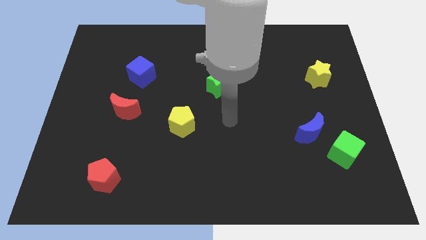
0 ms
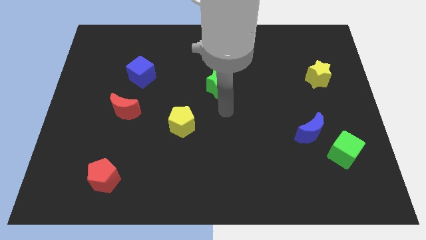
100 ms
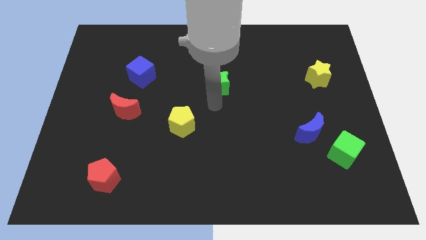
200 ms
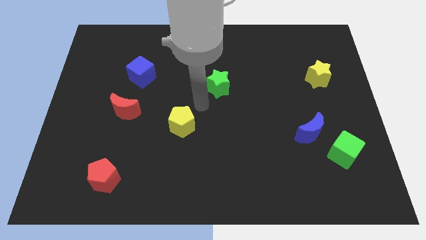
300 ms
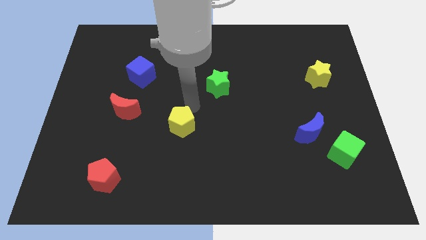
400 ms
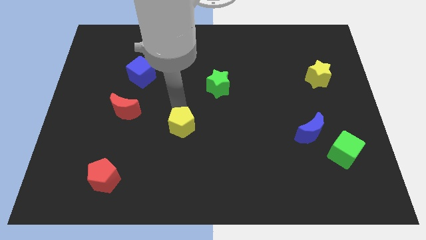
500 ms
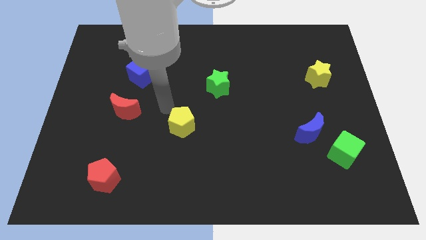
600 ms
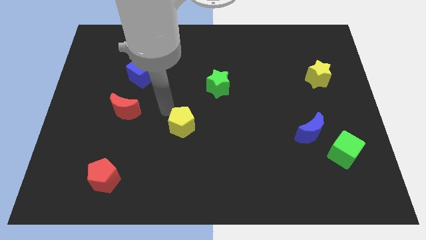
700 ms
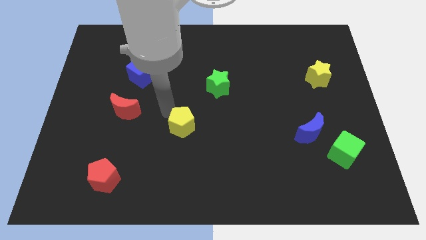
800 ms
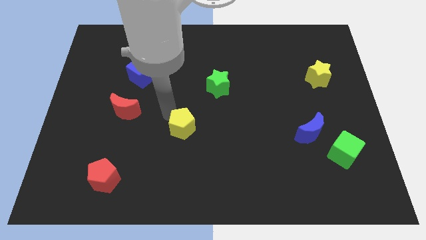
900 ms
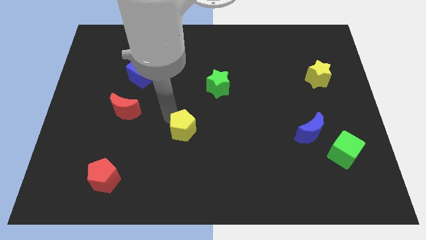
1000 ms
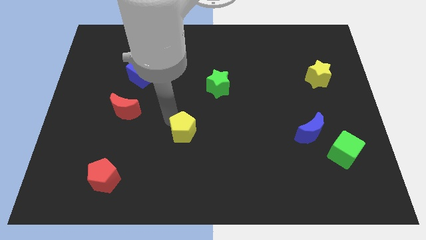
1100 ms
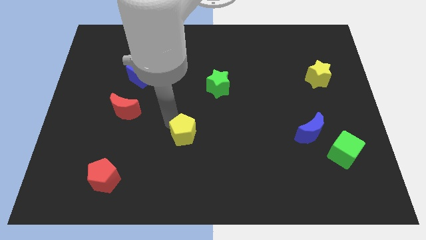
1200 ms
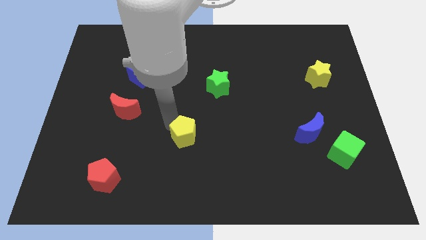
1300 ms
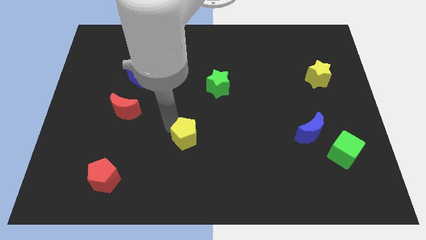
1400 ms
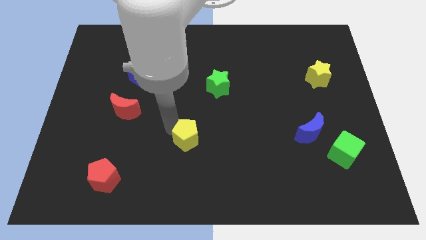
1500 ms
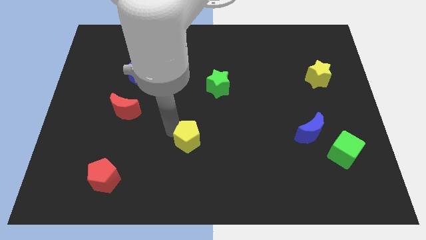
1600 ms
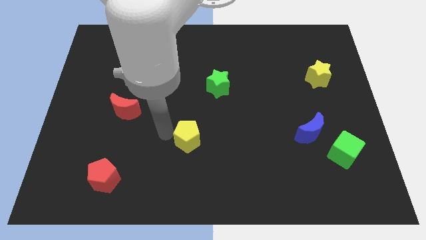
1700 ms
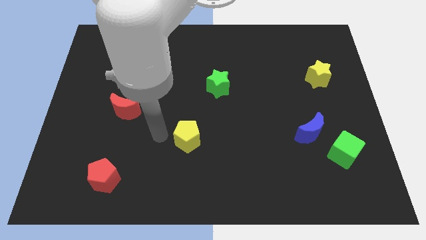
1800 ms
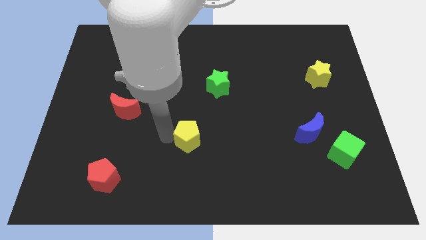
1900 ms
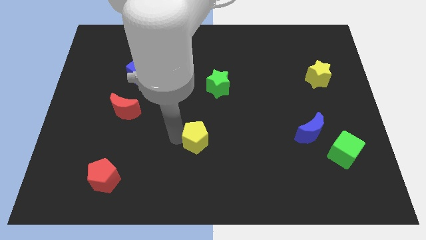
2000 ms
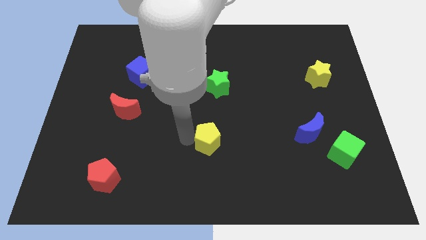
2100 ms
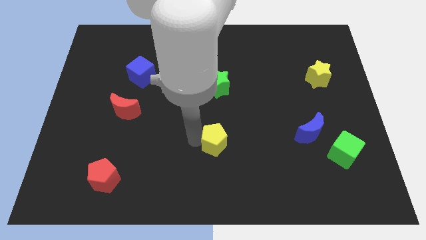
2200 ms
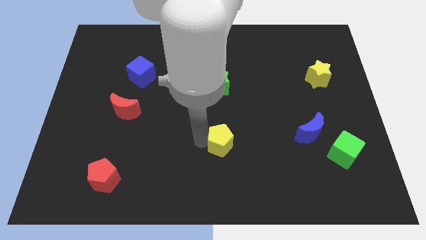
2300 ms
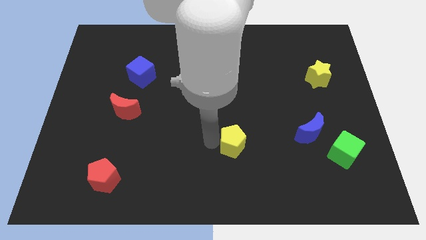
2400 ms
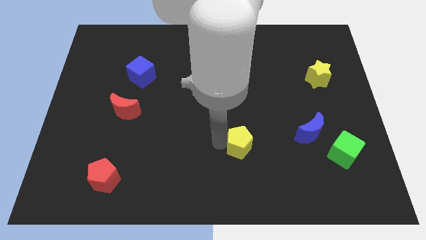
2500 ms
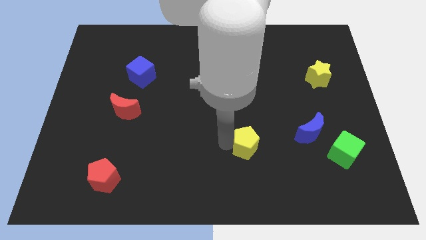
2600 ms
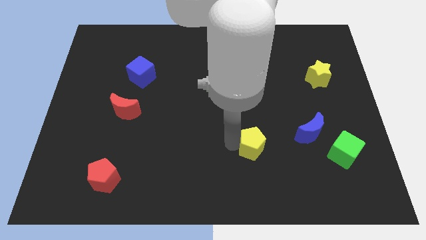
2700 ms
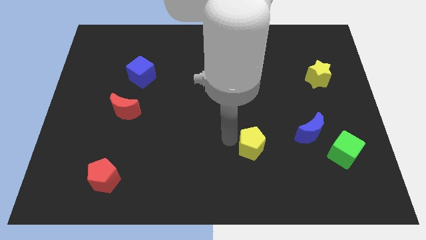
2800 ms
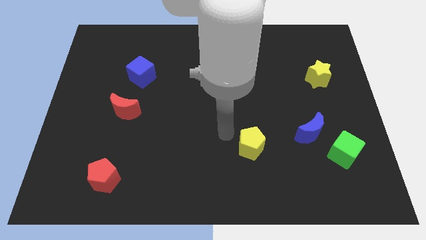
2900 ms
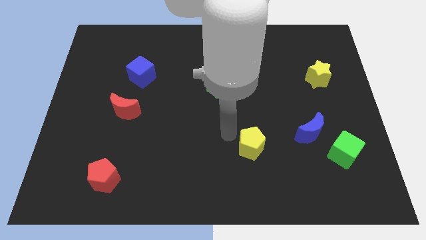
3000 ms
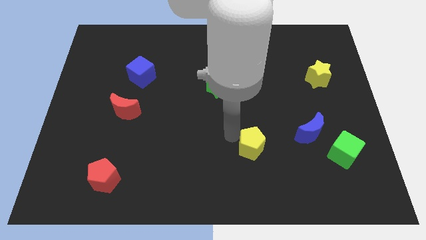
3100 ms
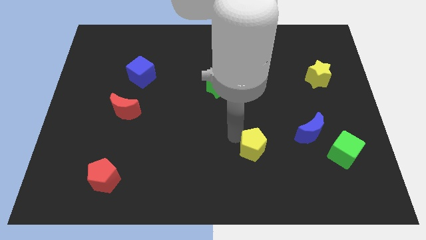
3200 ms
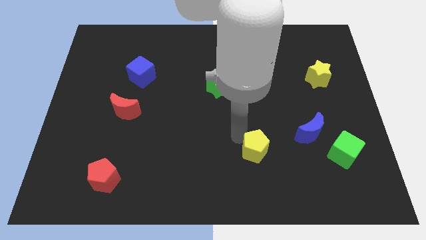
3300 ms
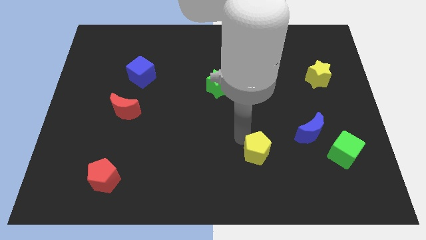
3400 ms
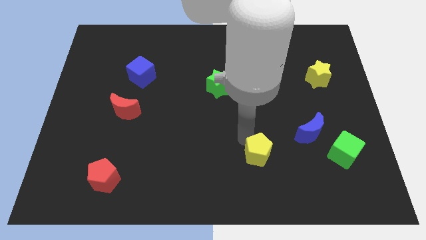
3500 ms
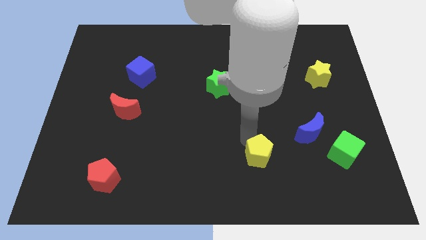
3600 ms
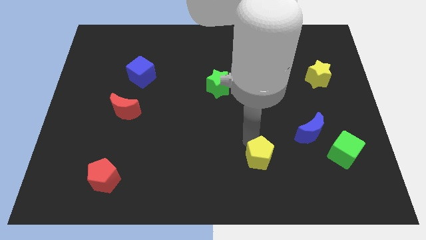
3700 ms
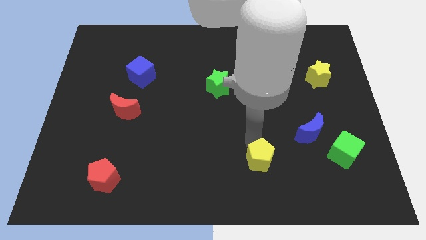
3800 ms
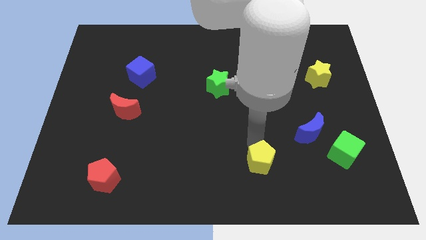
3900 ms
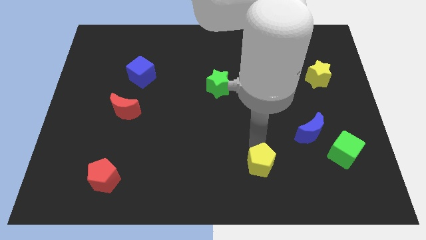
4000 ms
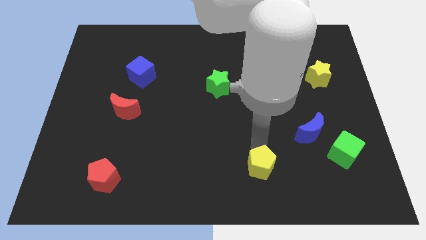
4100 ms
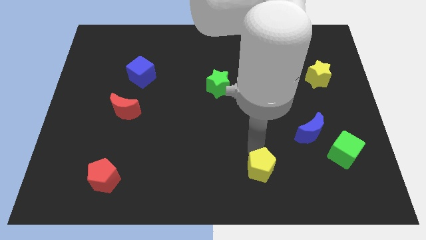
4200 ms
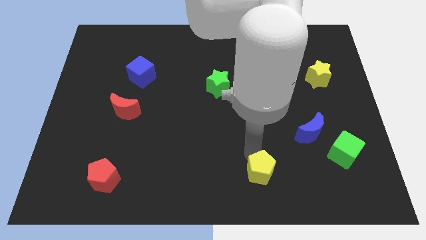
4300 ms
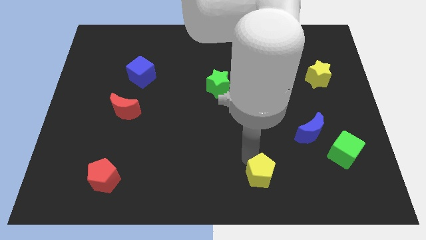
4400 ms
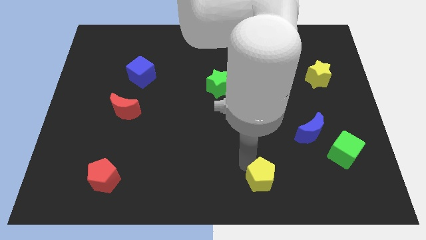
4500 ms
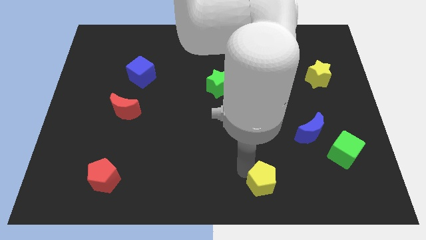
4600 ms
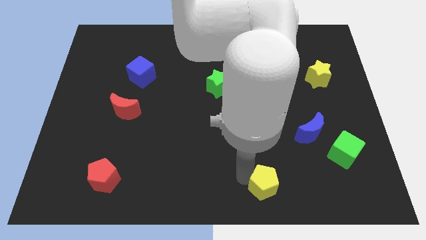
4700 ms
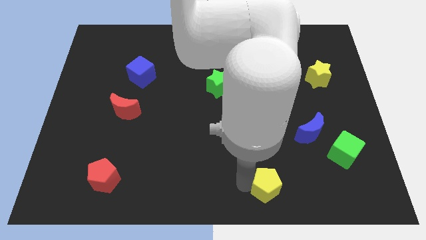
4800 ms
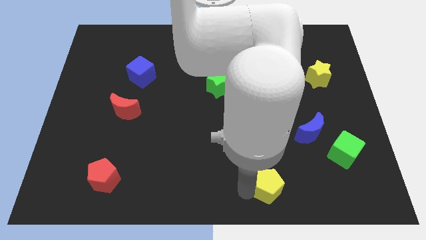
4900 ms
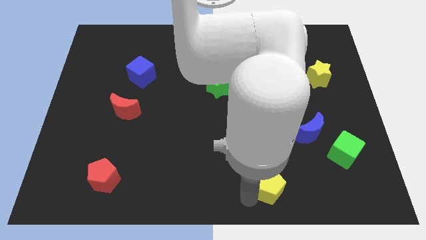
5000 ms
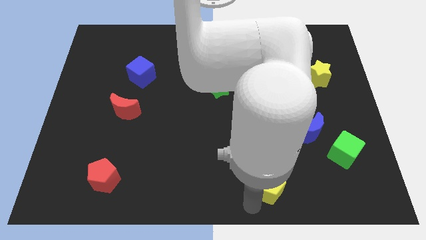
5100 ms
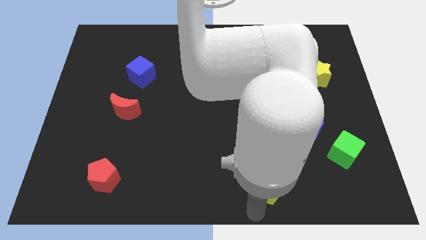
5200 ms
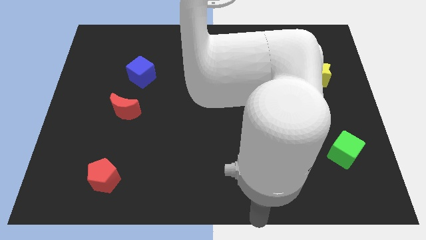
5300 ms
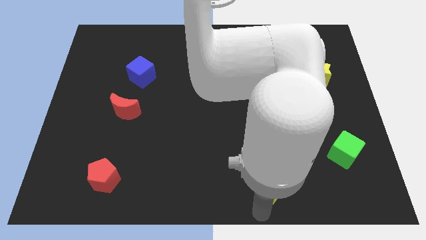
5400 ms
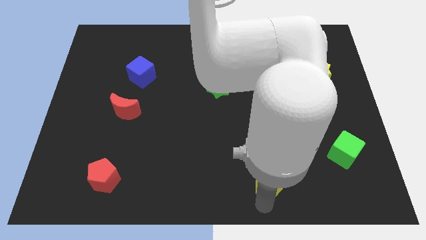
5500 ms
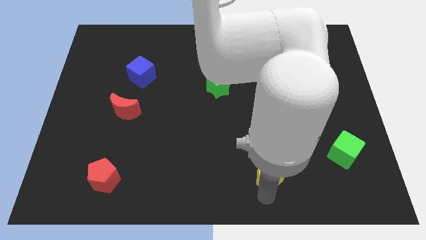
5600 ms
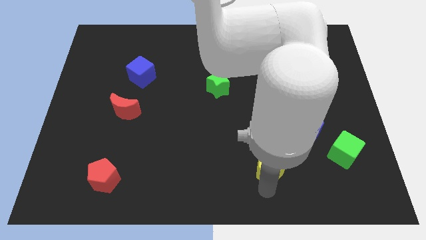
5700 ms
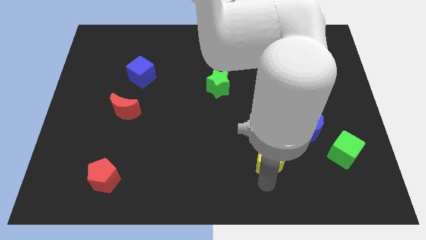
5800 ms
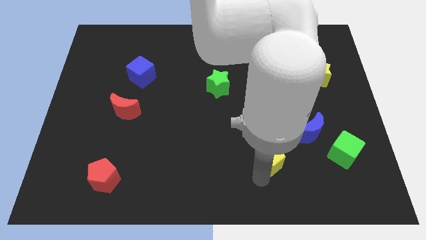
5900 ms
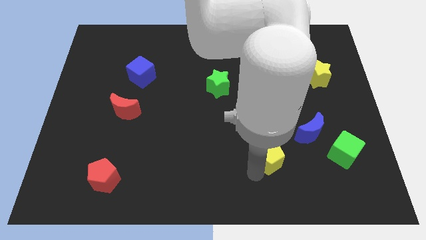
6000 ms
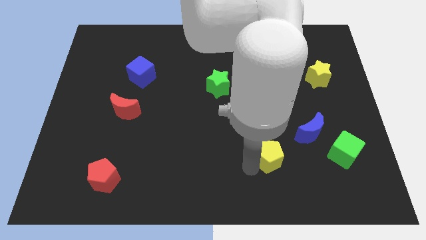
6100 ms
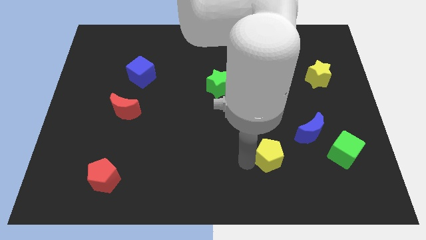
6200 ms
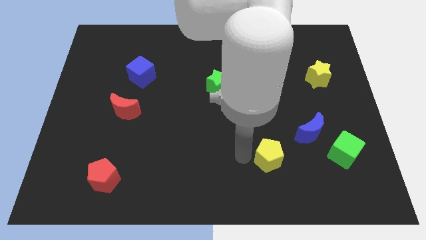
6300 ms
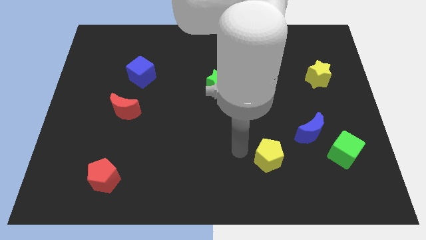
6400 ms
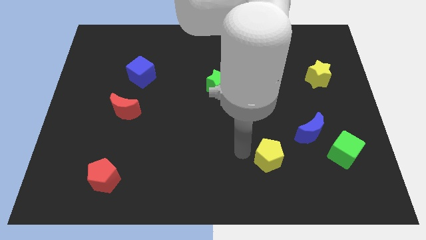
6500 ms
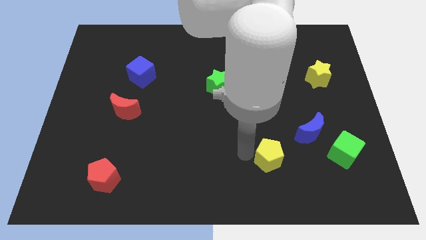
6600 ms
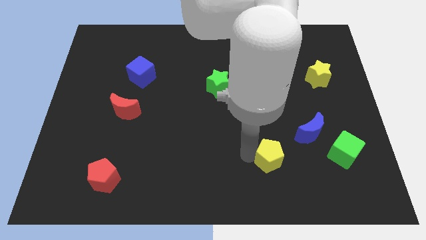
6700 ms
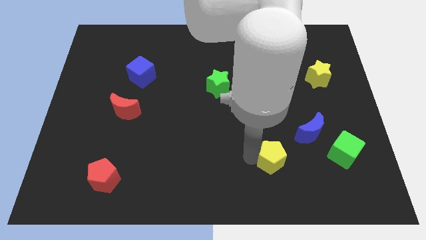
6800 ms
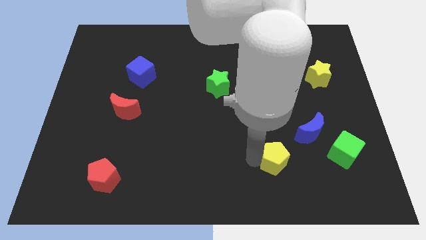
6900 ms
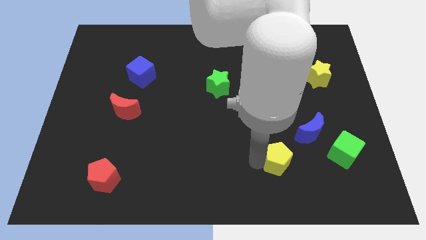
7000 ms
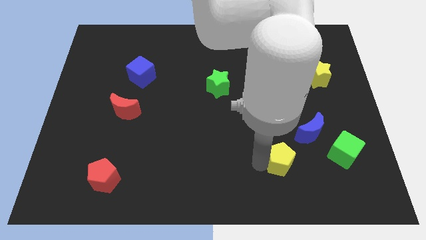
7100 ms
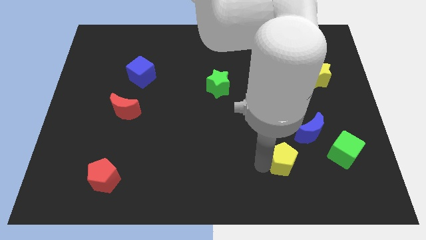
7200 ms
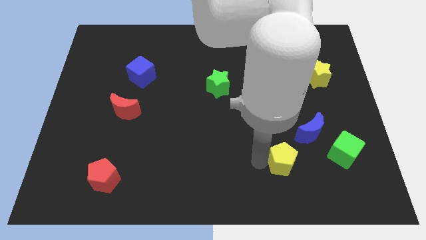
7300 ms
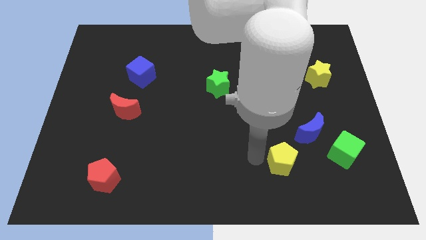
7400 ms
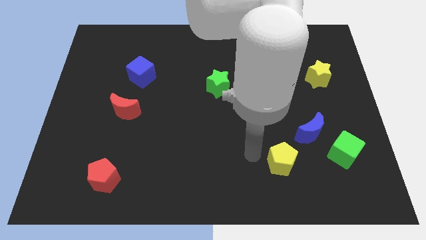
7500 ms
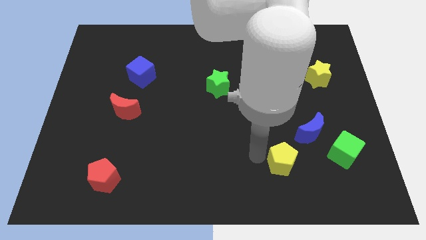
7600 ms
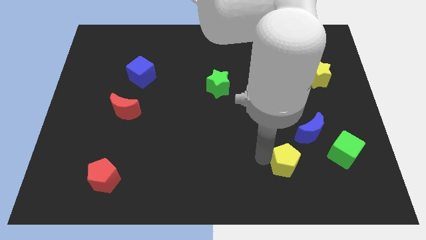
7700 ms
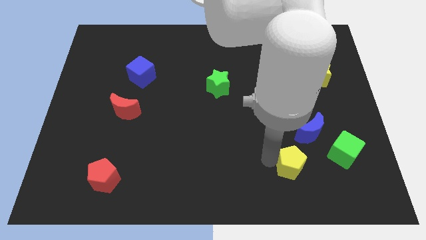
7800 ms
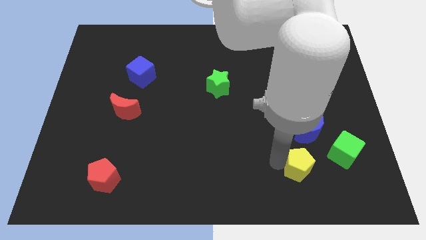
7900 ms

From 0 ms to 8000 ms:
move the yellow pentagon to the bottom of the blue moon
